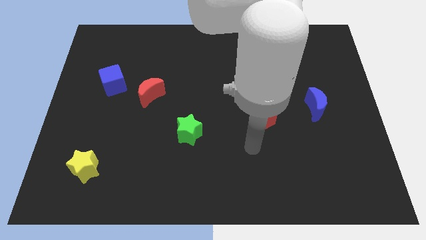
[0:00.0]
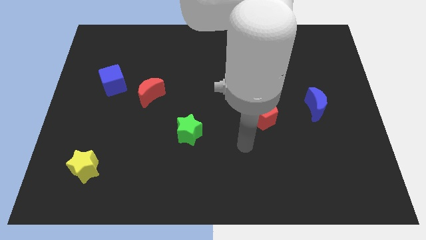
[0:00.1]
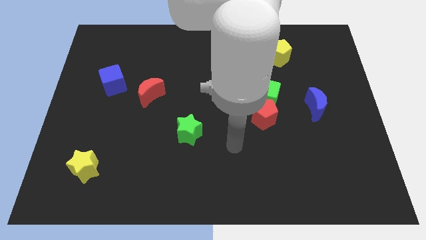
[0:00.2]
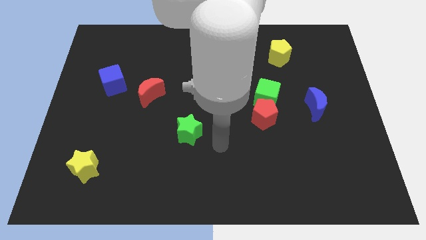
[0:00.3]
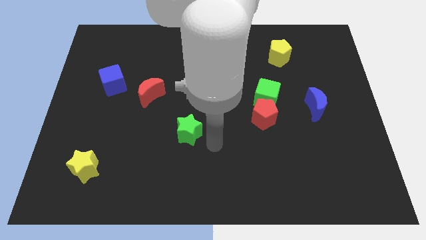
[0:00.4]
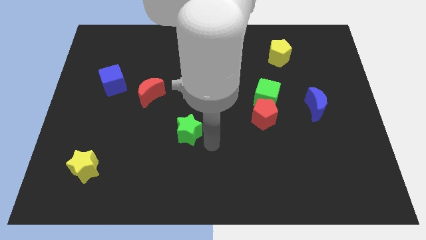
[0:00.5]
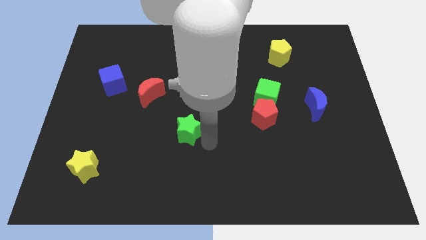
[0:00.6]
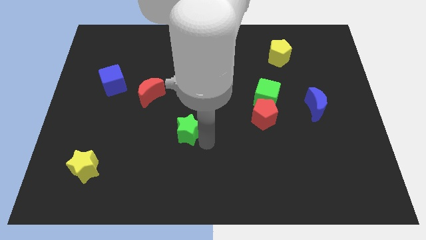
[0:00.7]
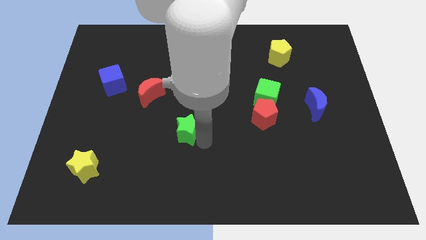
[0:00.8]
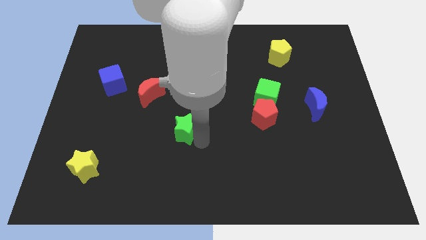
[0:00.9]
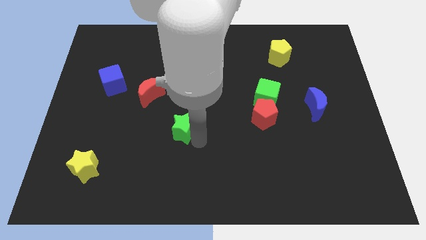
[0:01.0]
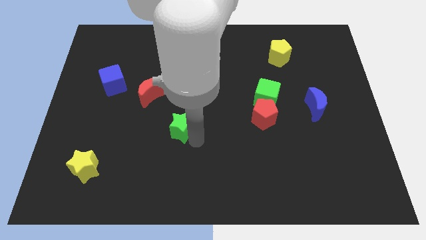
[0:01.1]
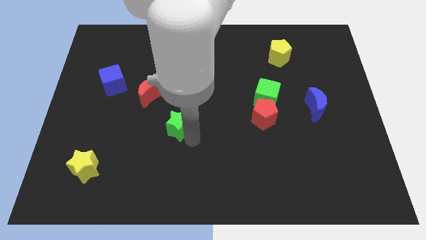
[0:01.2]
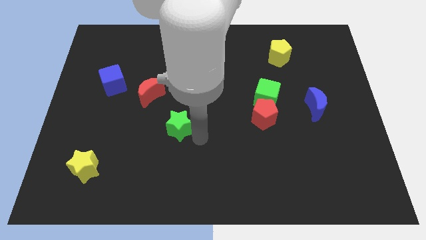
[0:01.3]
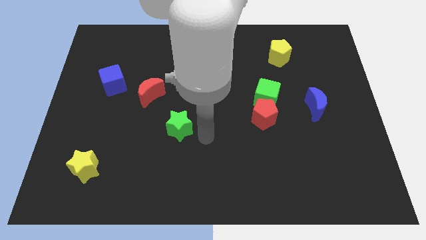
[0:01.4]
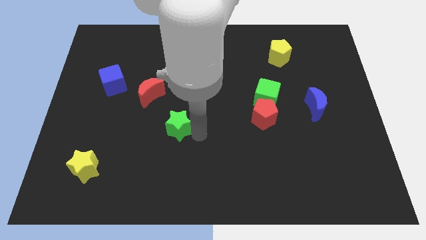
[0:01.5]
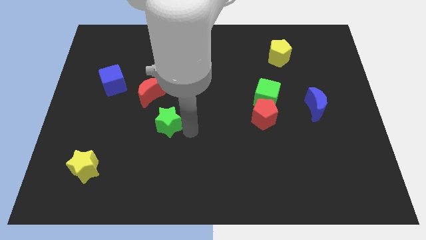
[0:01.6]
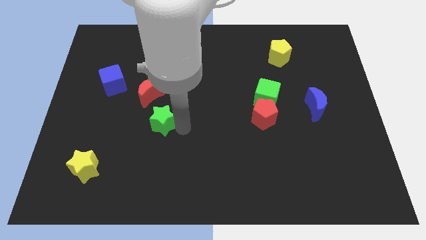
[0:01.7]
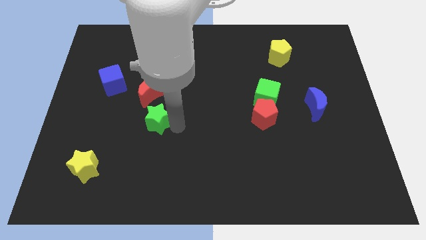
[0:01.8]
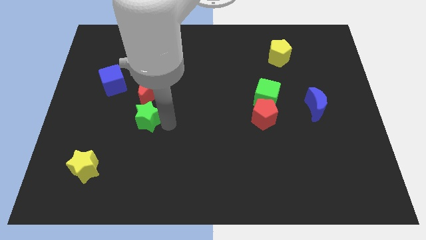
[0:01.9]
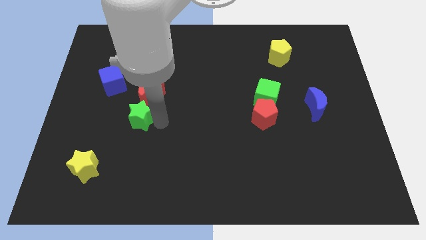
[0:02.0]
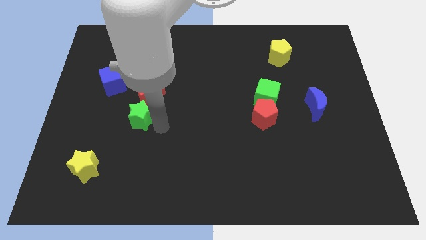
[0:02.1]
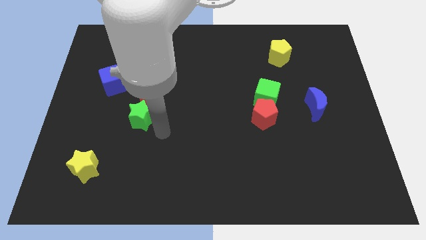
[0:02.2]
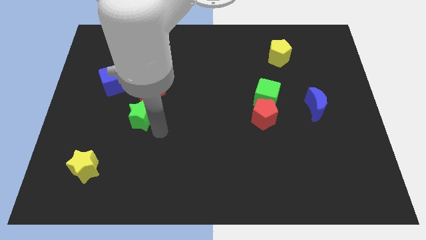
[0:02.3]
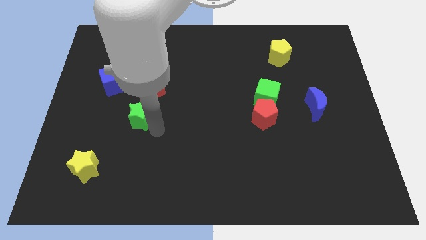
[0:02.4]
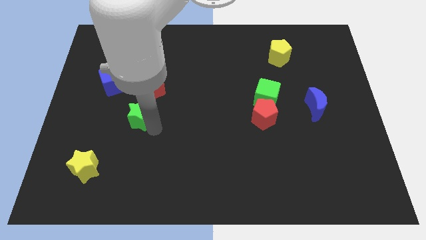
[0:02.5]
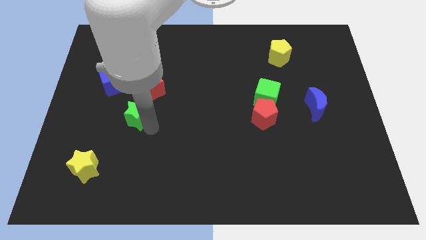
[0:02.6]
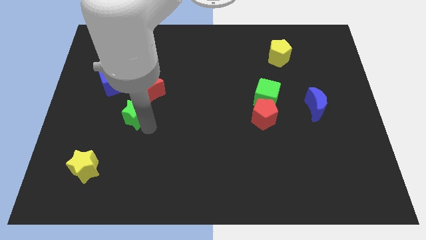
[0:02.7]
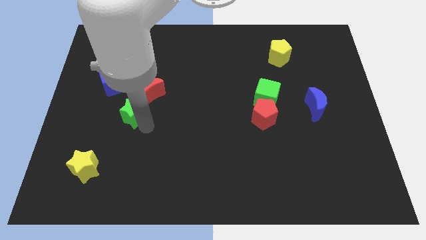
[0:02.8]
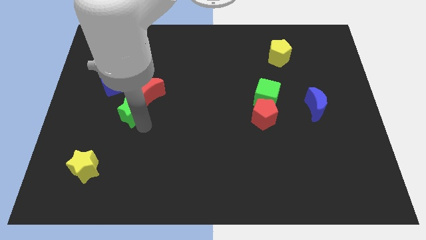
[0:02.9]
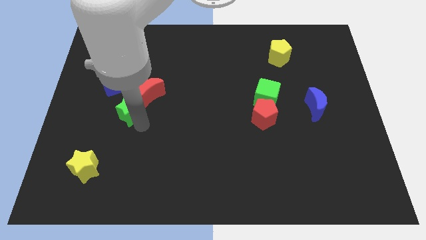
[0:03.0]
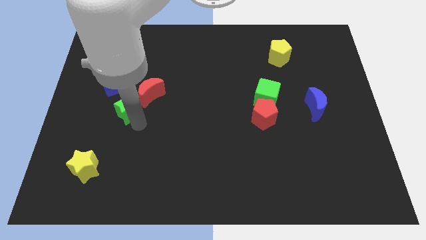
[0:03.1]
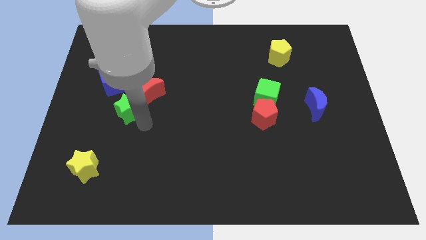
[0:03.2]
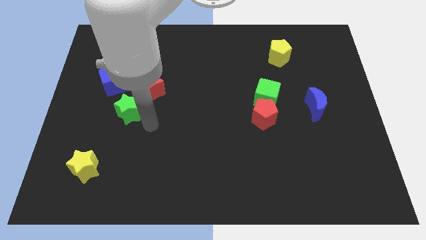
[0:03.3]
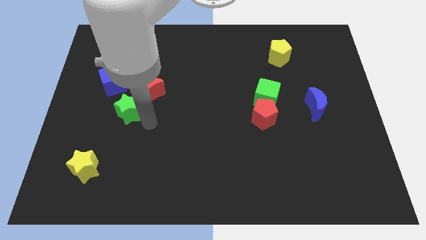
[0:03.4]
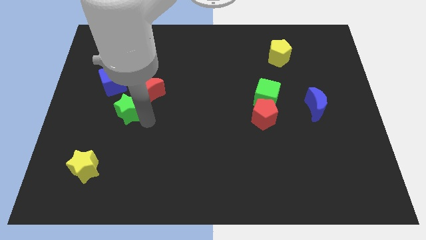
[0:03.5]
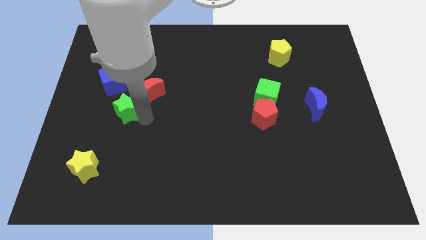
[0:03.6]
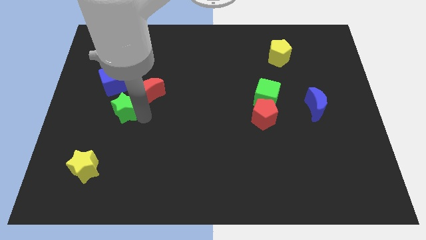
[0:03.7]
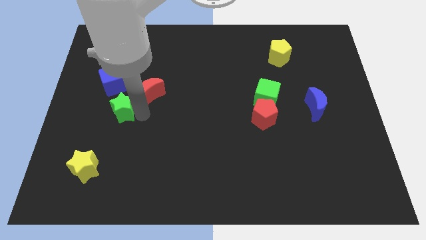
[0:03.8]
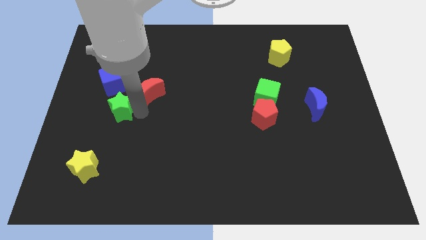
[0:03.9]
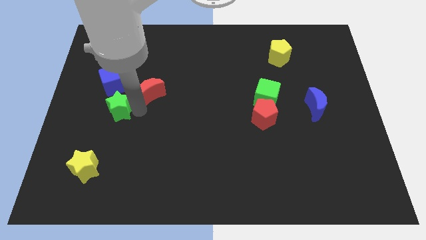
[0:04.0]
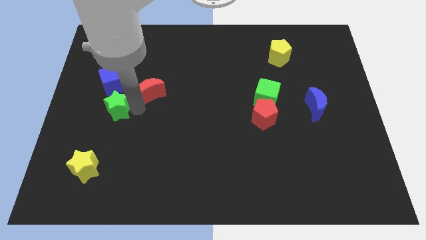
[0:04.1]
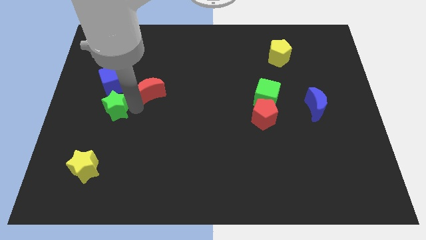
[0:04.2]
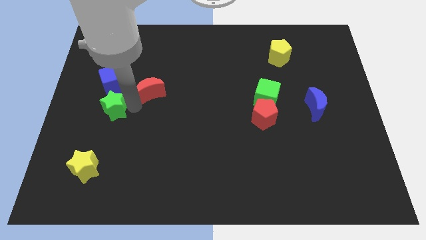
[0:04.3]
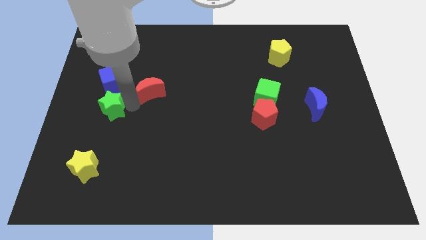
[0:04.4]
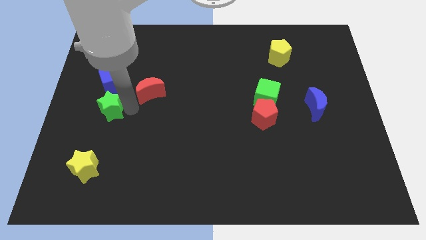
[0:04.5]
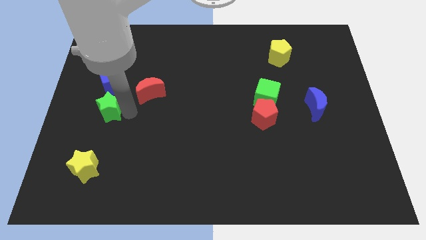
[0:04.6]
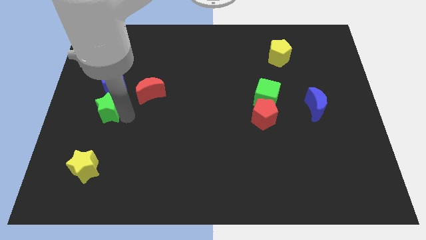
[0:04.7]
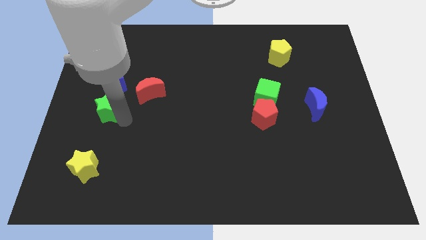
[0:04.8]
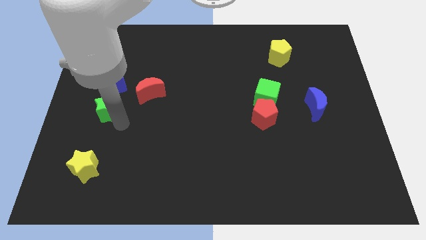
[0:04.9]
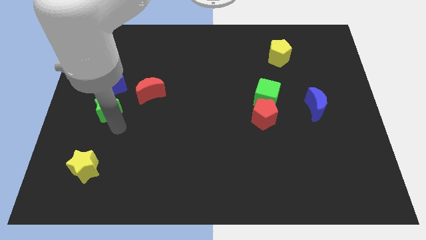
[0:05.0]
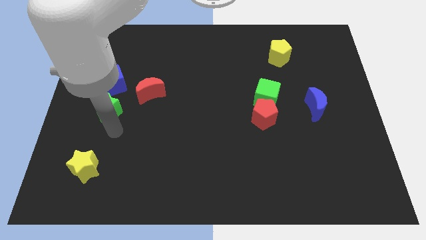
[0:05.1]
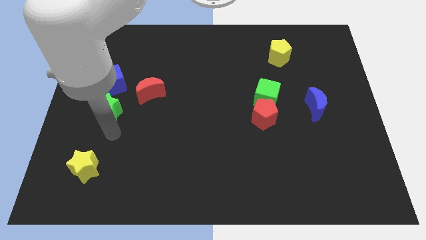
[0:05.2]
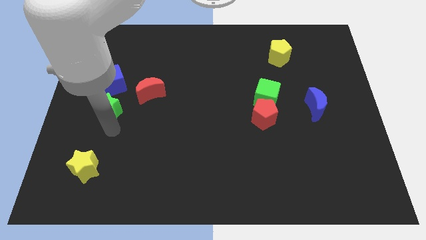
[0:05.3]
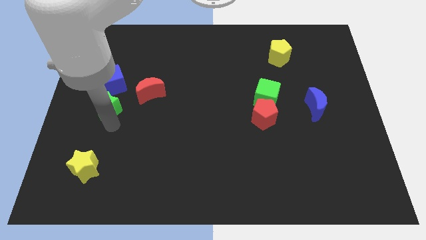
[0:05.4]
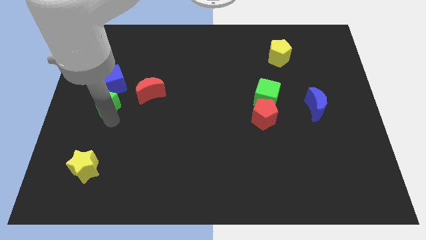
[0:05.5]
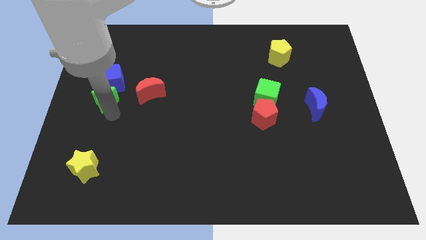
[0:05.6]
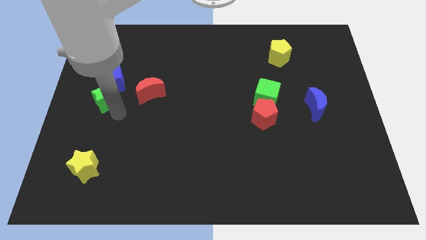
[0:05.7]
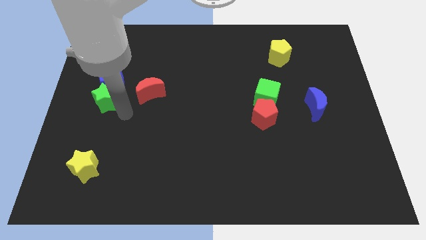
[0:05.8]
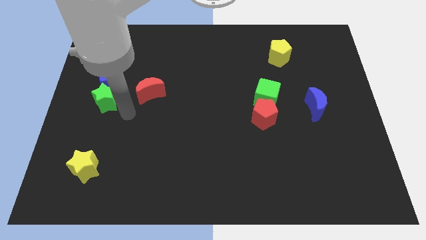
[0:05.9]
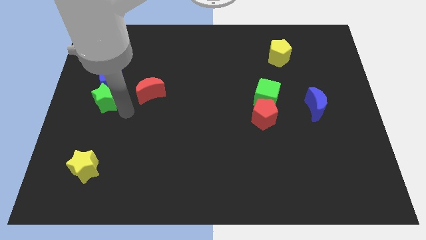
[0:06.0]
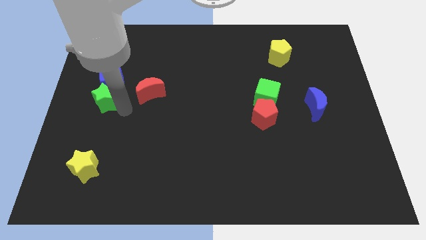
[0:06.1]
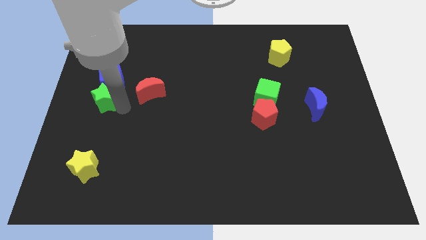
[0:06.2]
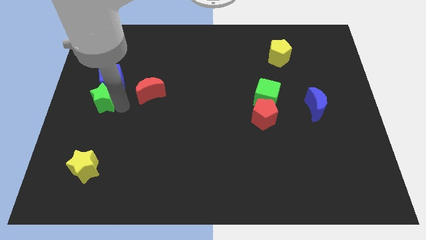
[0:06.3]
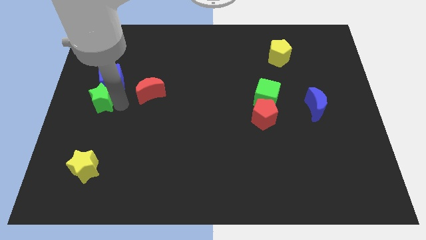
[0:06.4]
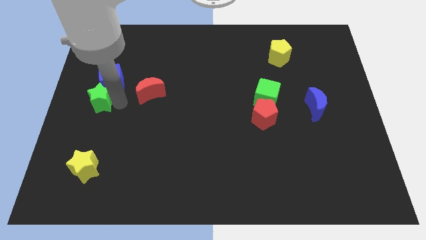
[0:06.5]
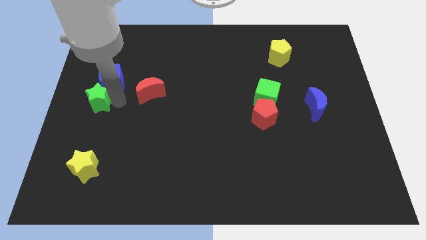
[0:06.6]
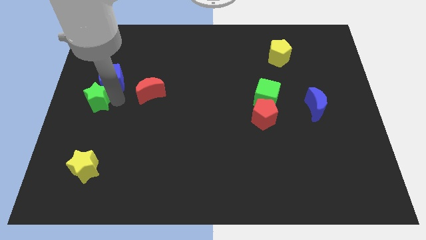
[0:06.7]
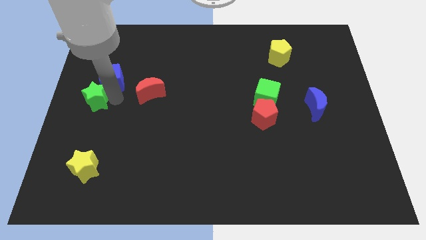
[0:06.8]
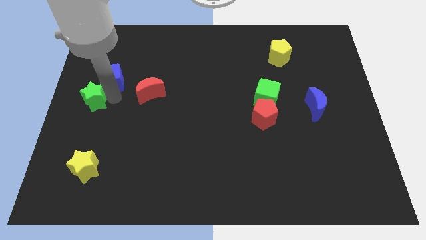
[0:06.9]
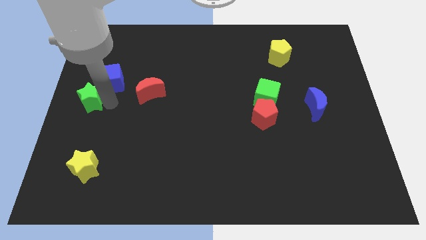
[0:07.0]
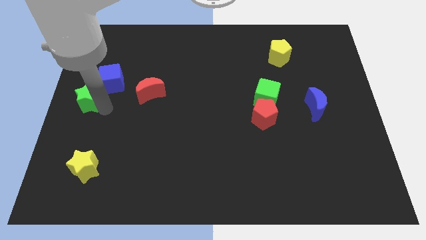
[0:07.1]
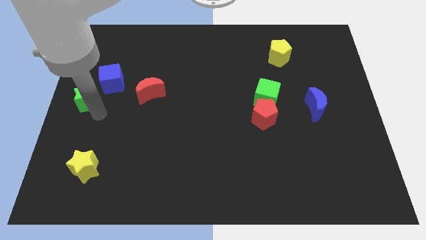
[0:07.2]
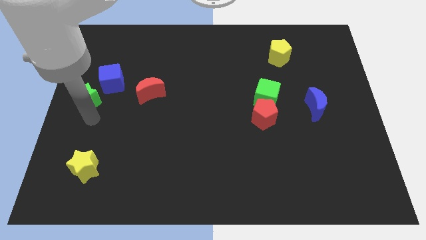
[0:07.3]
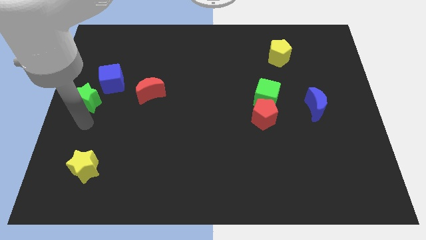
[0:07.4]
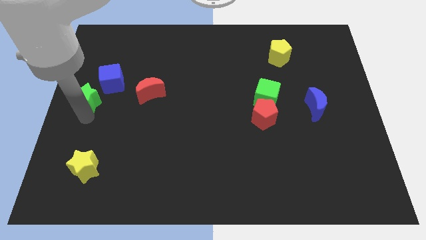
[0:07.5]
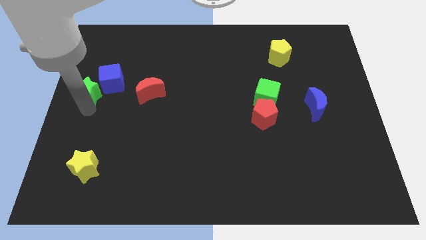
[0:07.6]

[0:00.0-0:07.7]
slide the green star upwards and to the left diagonally

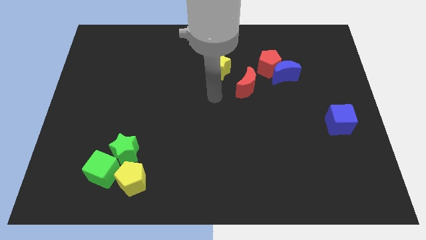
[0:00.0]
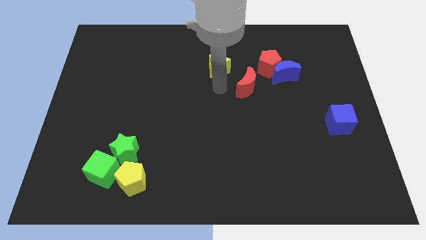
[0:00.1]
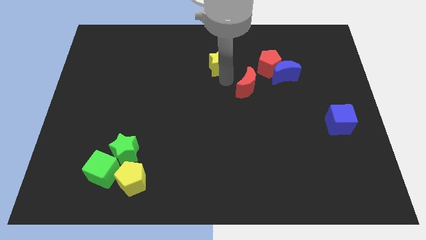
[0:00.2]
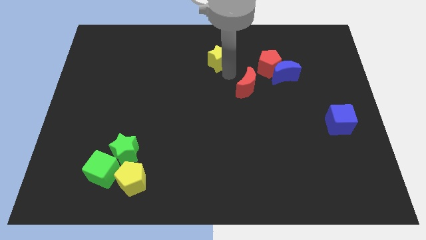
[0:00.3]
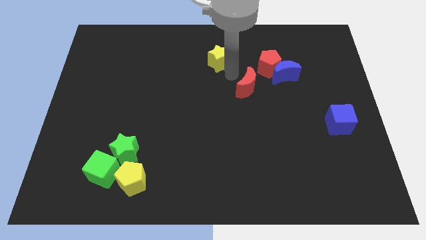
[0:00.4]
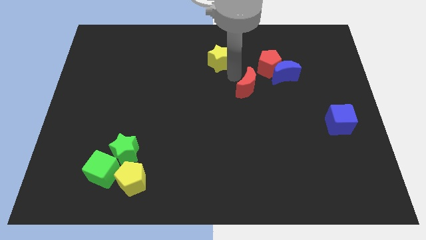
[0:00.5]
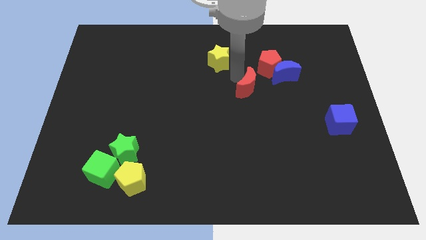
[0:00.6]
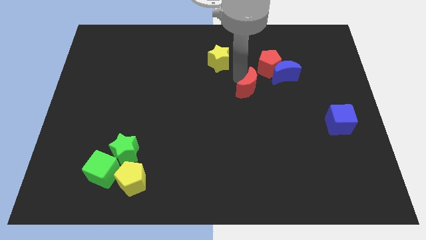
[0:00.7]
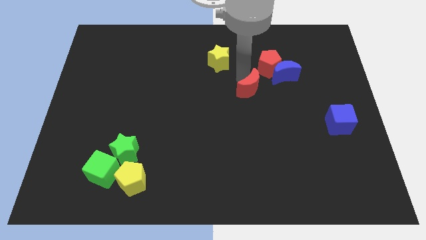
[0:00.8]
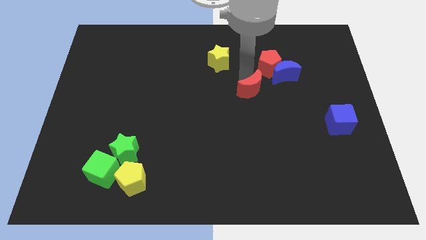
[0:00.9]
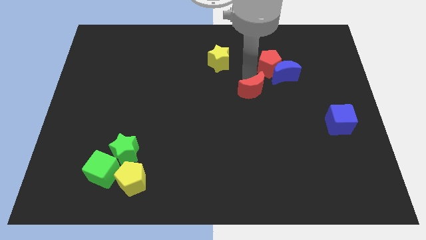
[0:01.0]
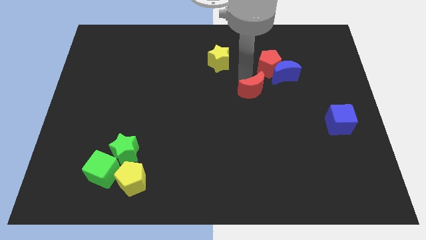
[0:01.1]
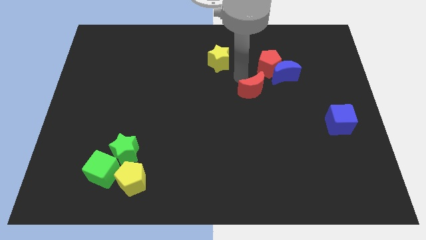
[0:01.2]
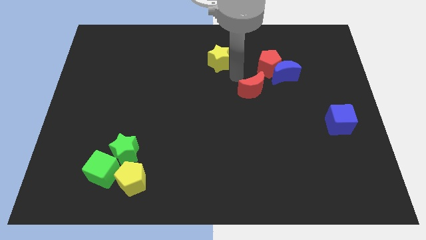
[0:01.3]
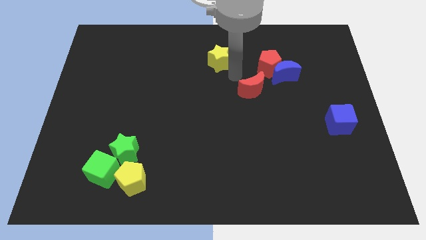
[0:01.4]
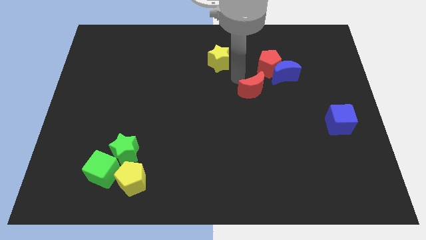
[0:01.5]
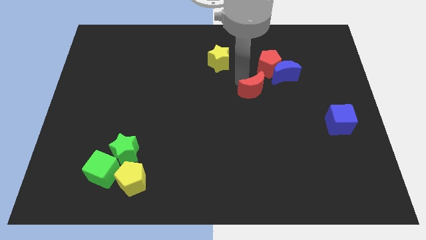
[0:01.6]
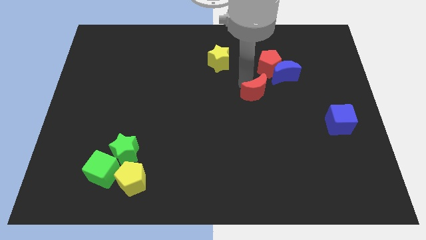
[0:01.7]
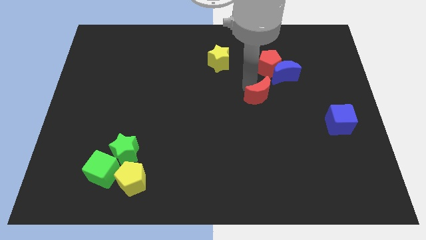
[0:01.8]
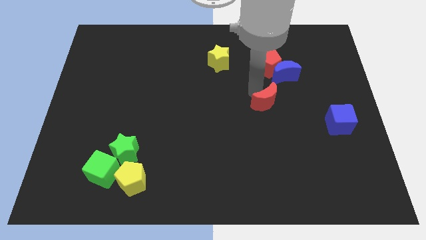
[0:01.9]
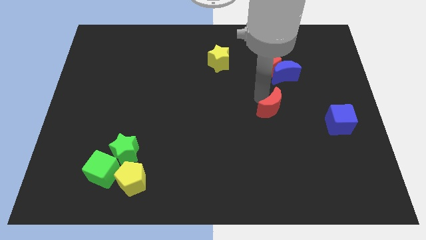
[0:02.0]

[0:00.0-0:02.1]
slightly slide the red moon down and then right
